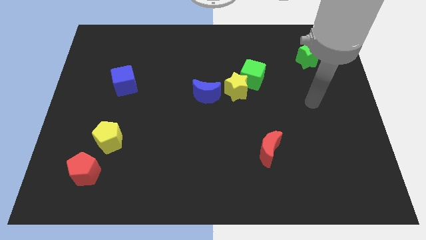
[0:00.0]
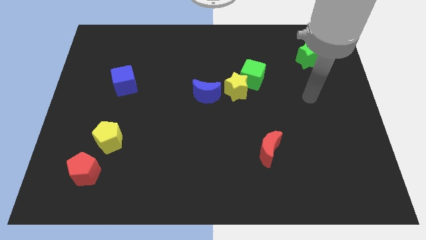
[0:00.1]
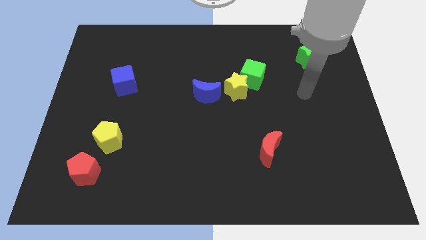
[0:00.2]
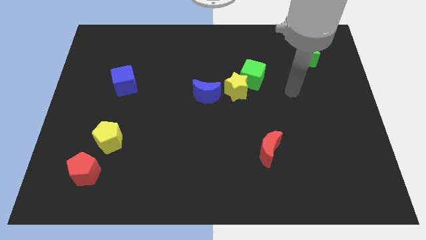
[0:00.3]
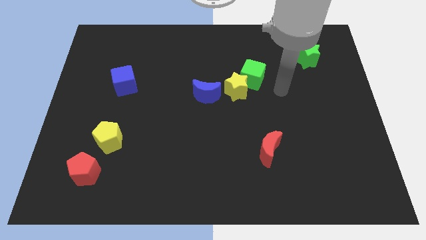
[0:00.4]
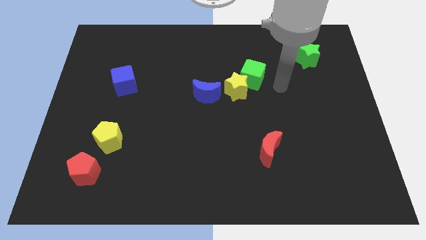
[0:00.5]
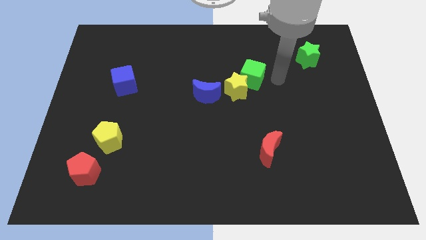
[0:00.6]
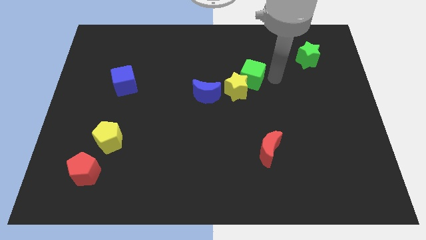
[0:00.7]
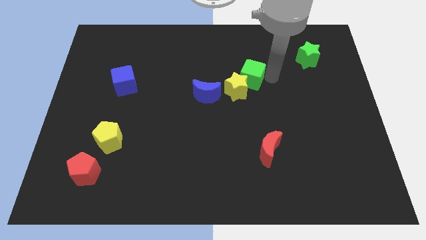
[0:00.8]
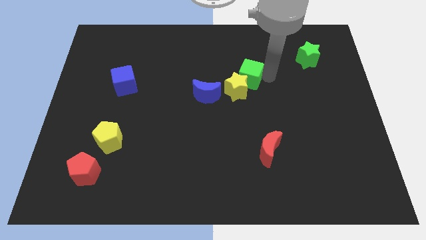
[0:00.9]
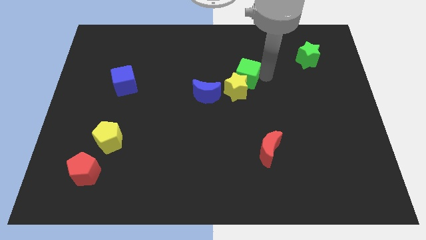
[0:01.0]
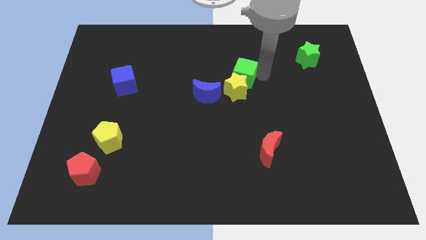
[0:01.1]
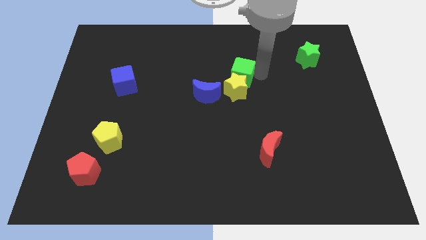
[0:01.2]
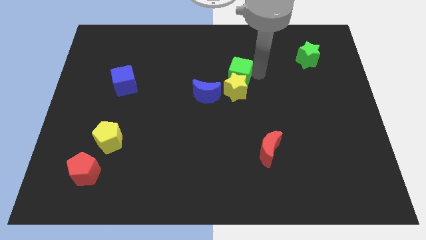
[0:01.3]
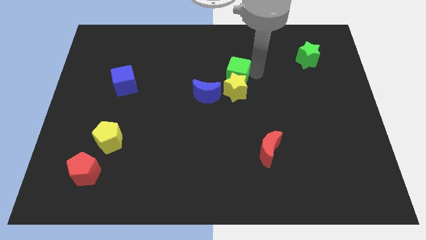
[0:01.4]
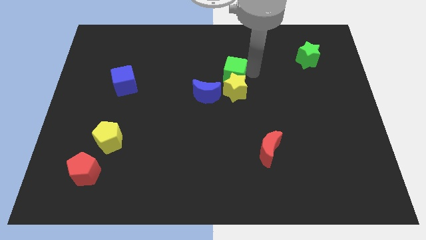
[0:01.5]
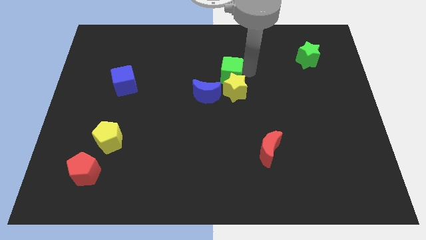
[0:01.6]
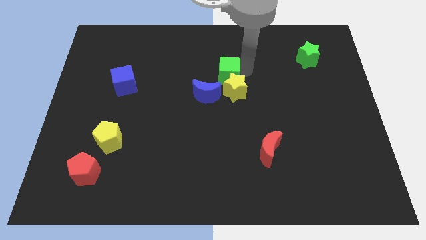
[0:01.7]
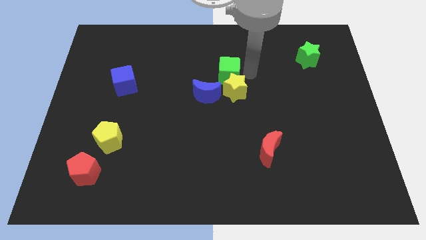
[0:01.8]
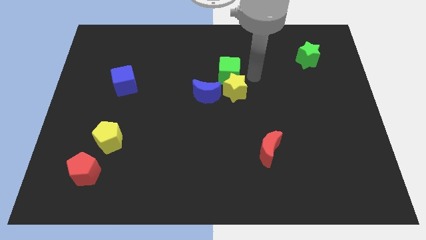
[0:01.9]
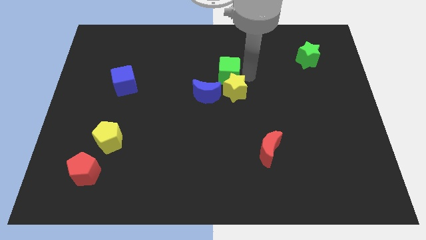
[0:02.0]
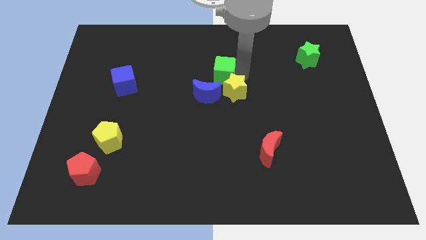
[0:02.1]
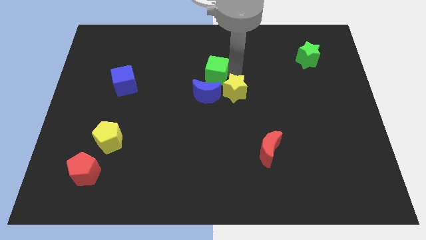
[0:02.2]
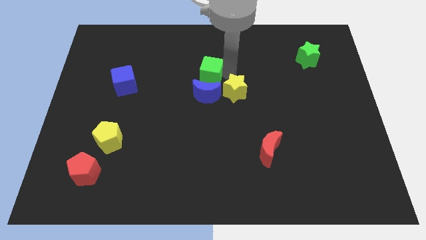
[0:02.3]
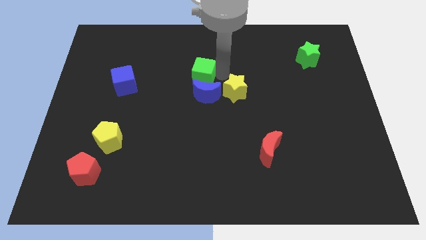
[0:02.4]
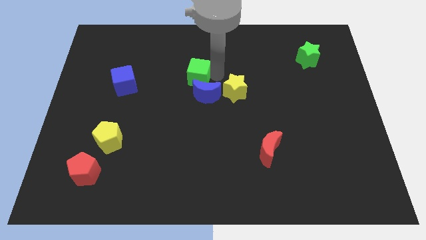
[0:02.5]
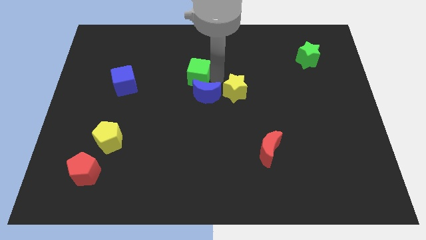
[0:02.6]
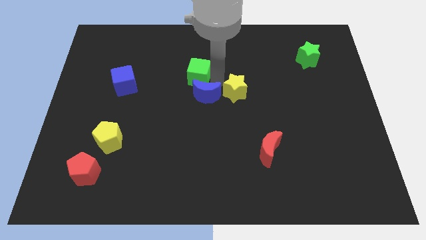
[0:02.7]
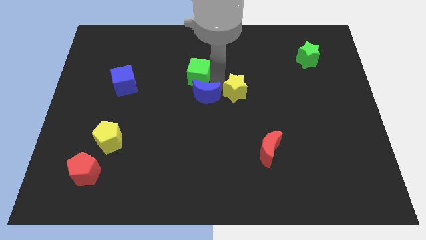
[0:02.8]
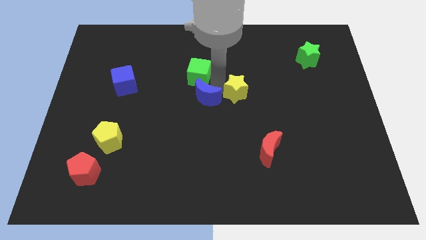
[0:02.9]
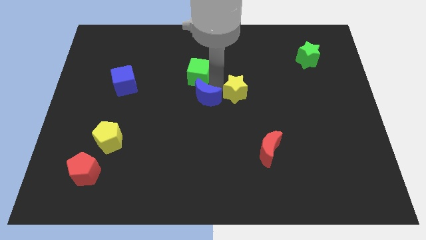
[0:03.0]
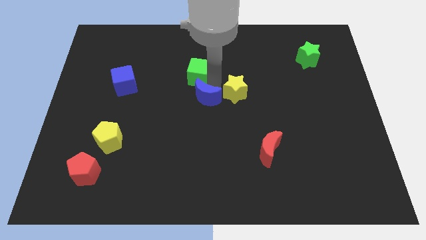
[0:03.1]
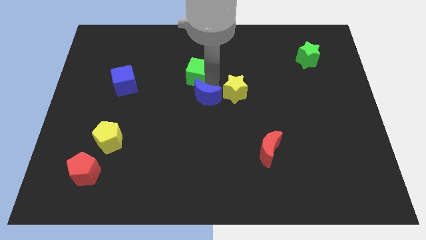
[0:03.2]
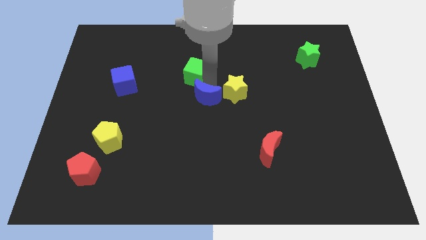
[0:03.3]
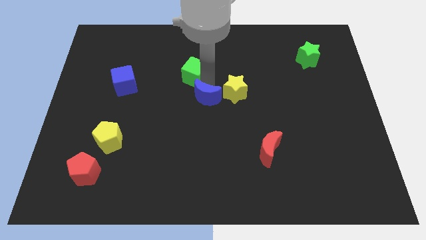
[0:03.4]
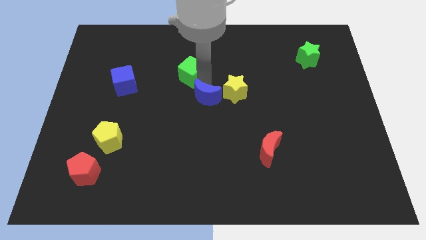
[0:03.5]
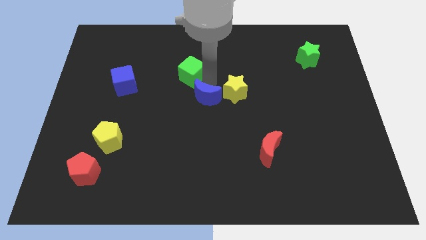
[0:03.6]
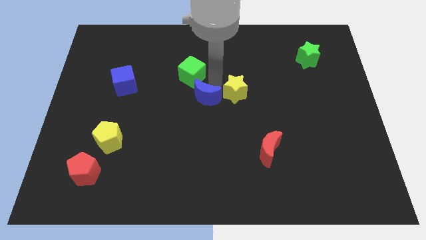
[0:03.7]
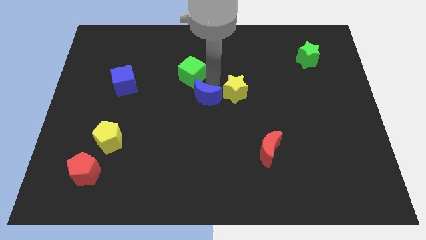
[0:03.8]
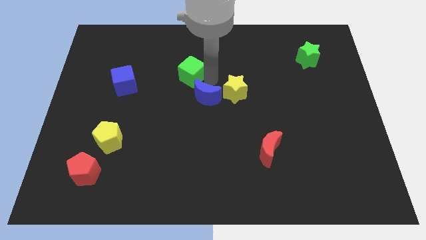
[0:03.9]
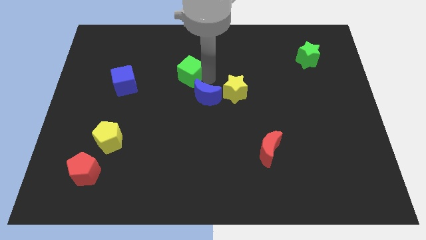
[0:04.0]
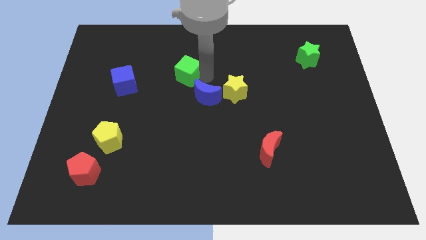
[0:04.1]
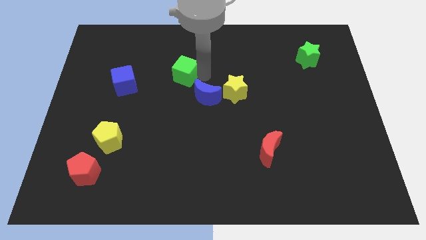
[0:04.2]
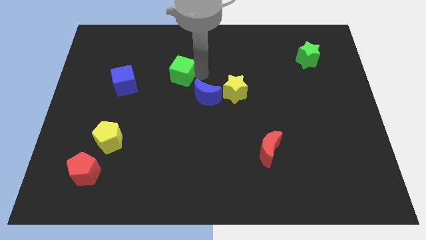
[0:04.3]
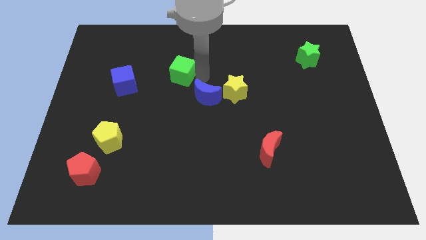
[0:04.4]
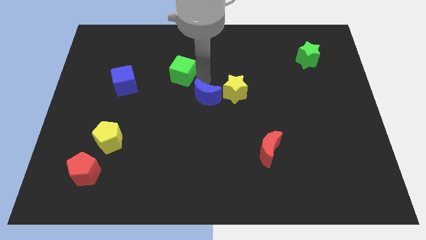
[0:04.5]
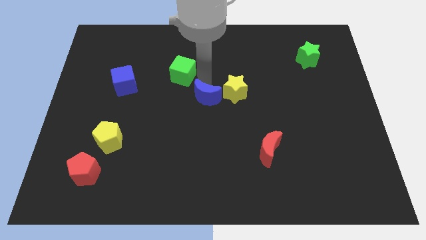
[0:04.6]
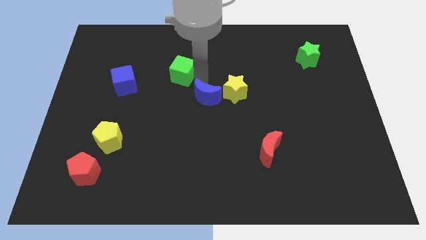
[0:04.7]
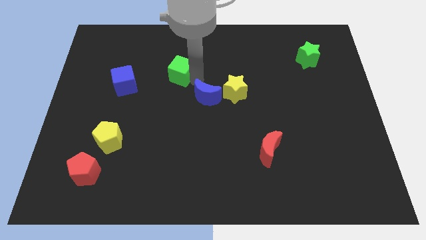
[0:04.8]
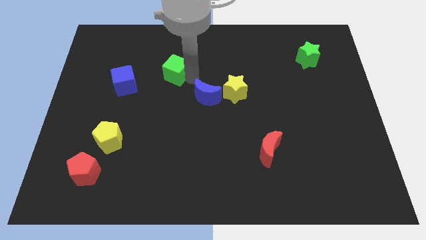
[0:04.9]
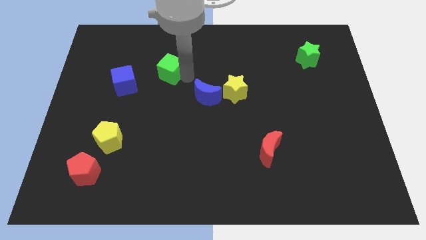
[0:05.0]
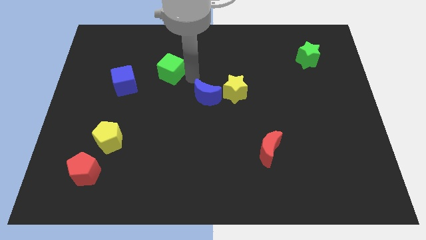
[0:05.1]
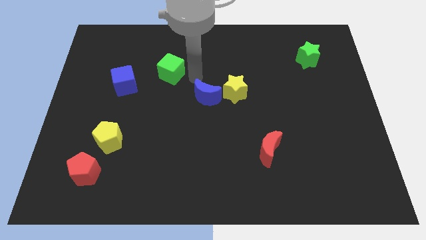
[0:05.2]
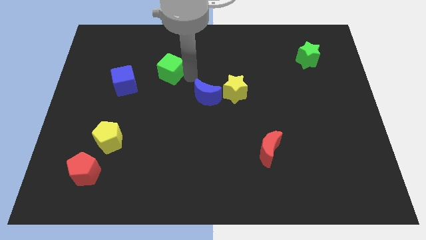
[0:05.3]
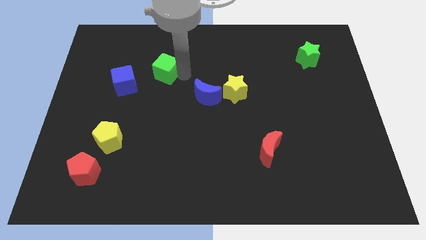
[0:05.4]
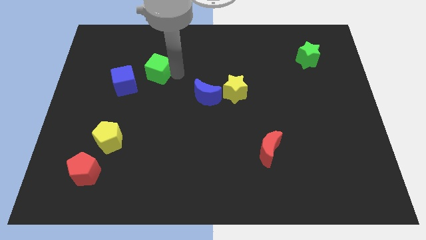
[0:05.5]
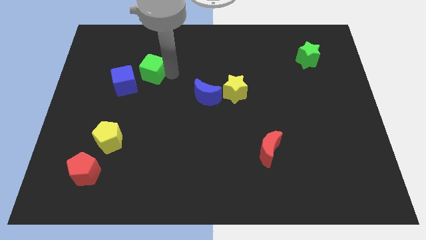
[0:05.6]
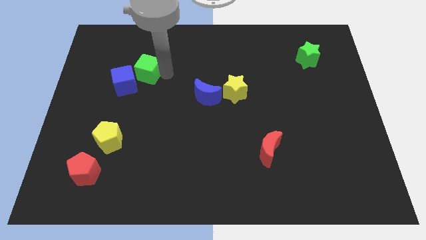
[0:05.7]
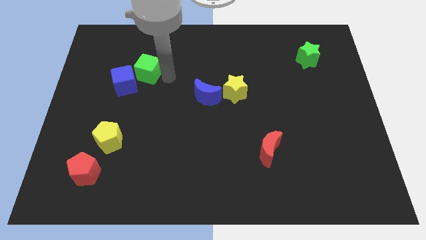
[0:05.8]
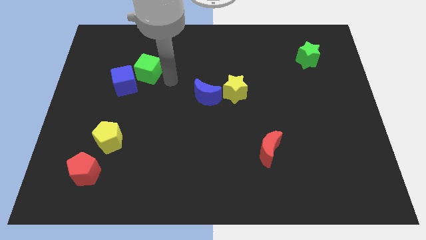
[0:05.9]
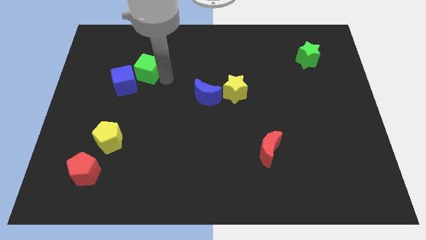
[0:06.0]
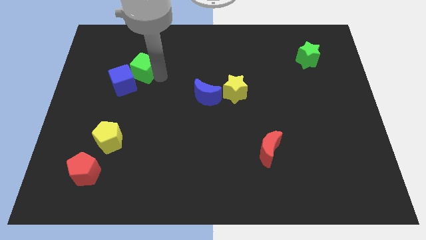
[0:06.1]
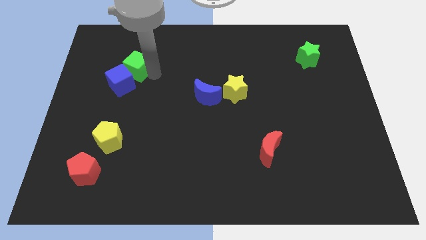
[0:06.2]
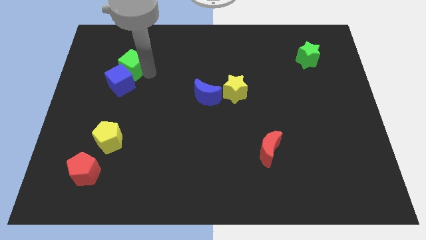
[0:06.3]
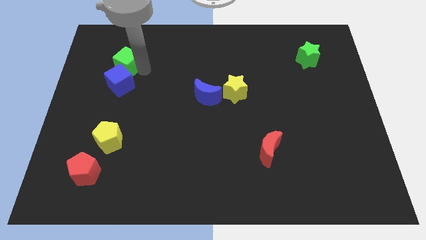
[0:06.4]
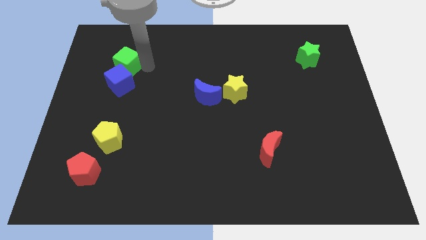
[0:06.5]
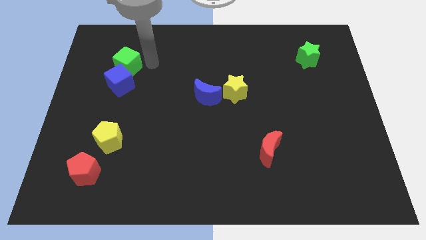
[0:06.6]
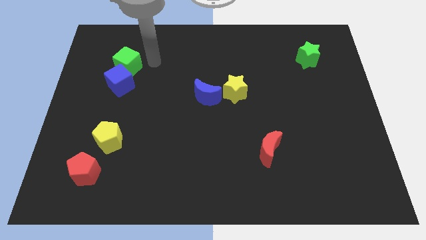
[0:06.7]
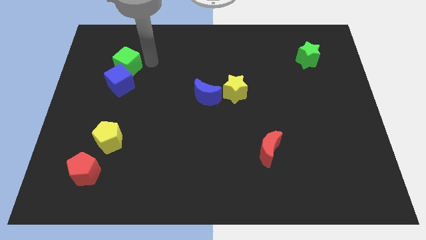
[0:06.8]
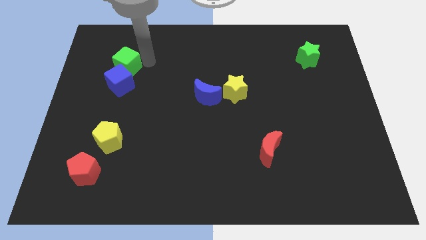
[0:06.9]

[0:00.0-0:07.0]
put the green cube to the top left side of the blue cube

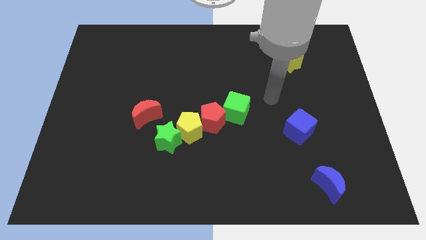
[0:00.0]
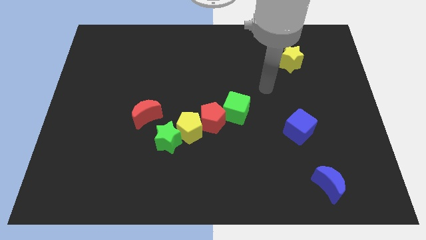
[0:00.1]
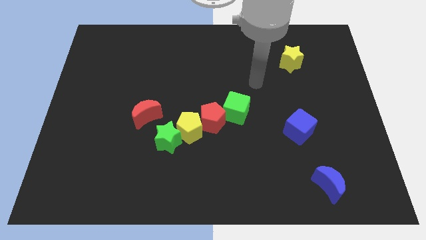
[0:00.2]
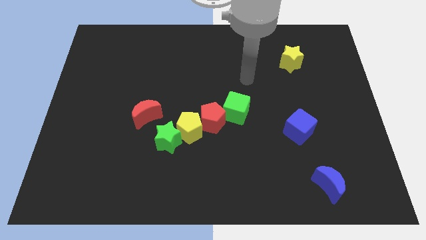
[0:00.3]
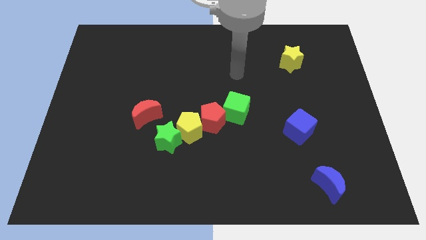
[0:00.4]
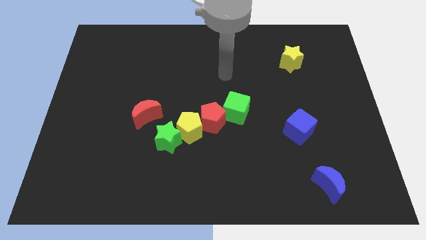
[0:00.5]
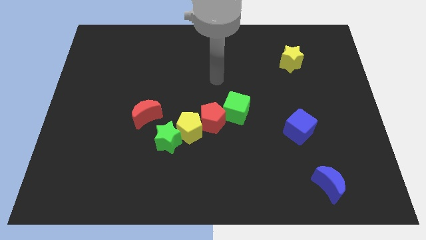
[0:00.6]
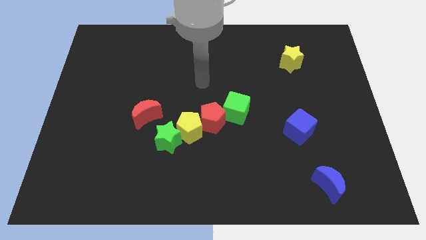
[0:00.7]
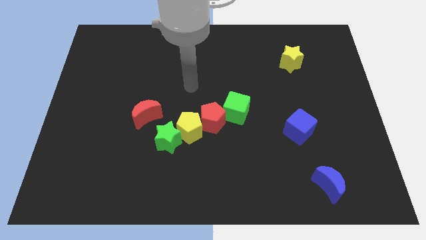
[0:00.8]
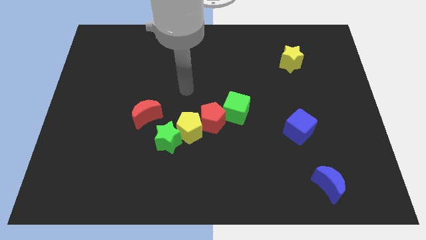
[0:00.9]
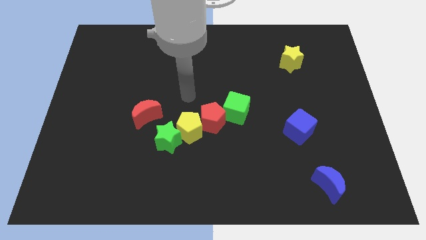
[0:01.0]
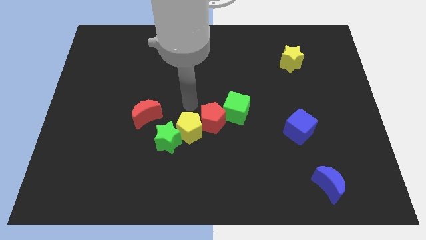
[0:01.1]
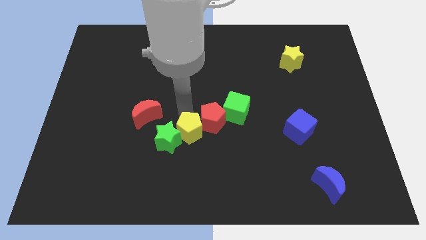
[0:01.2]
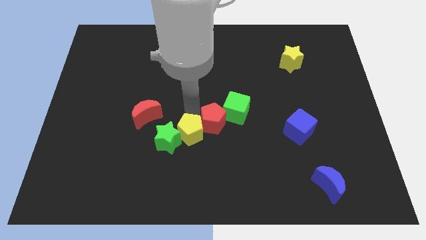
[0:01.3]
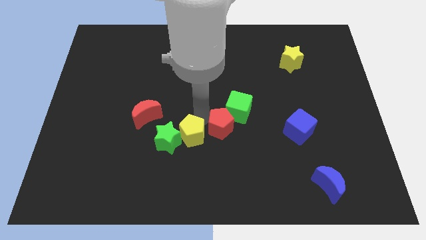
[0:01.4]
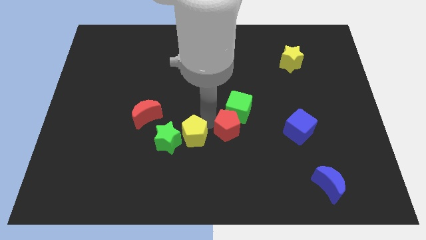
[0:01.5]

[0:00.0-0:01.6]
push the red pentagon to the left side of the blue cube

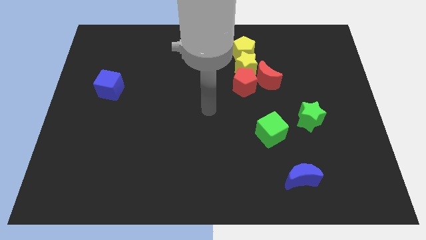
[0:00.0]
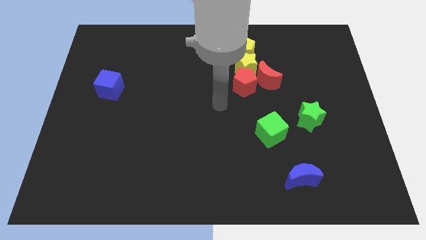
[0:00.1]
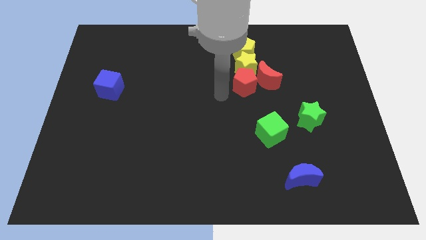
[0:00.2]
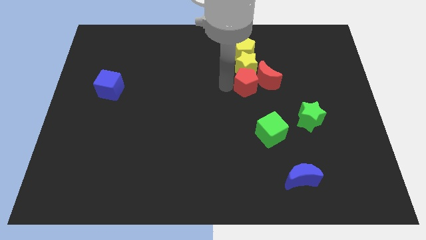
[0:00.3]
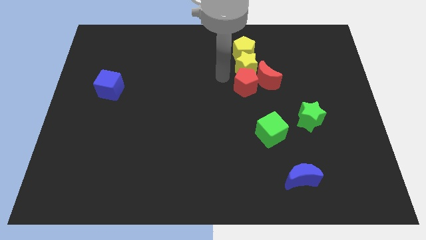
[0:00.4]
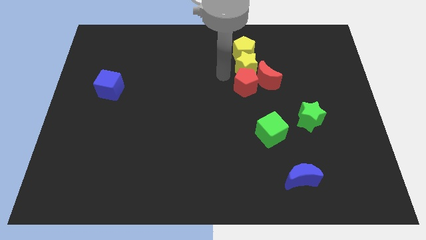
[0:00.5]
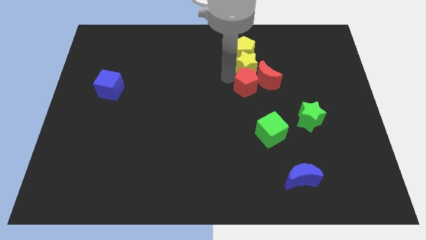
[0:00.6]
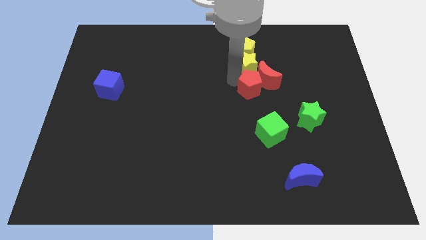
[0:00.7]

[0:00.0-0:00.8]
push the red pentagon above the green cube
